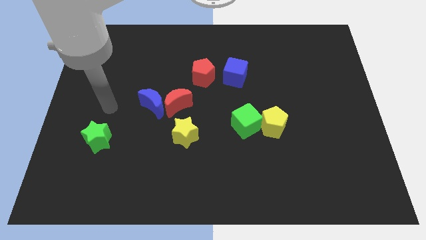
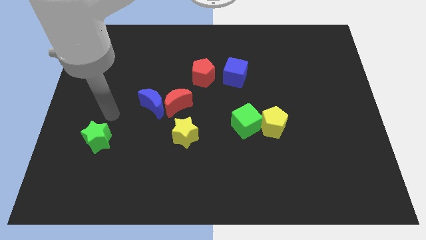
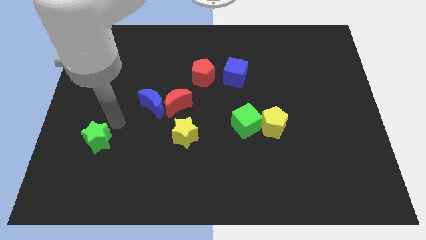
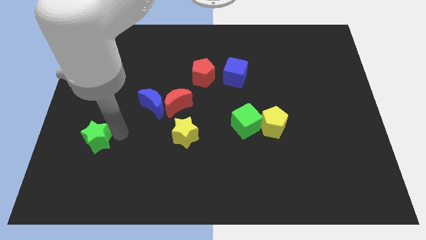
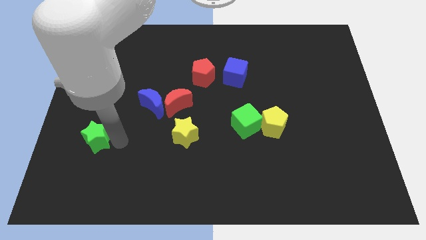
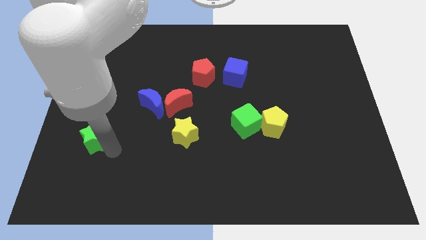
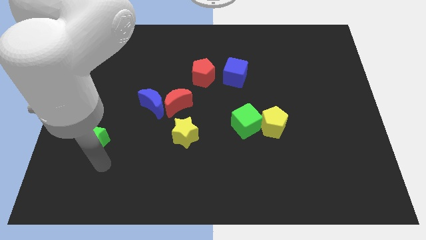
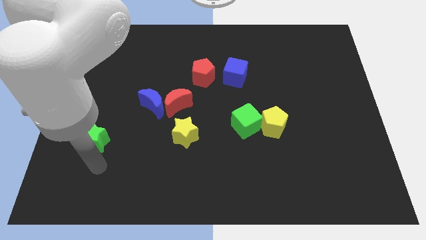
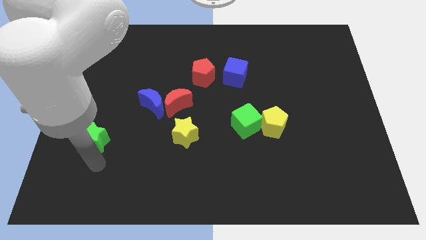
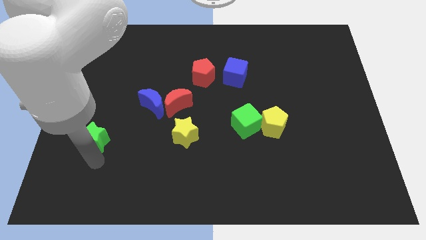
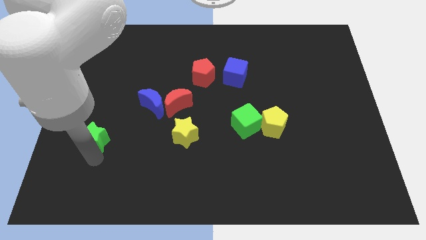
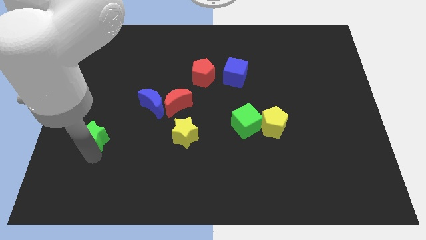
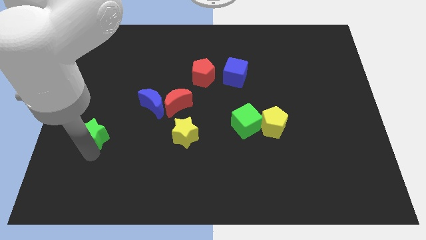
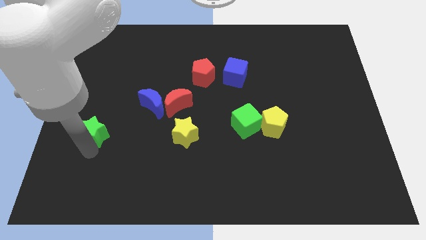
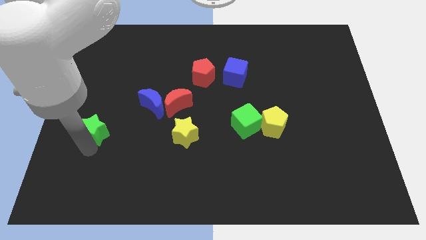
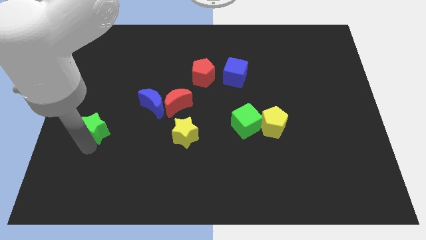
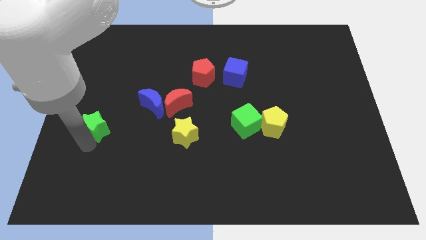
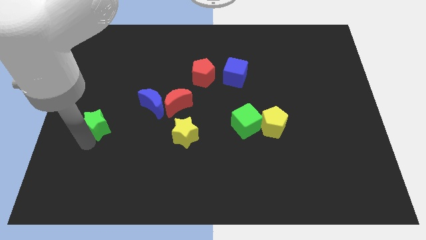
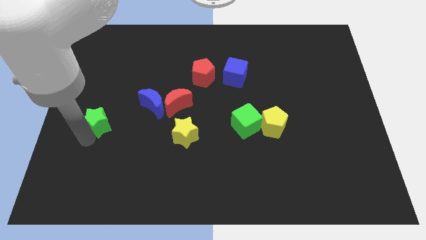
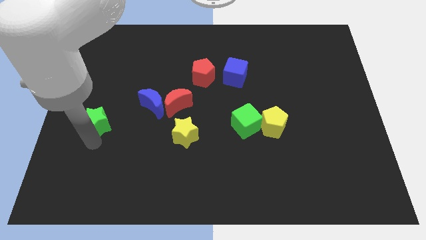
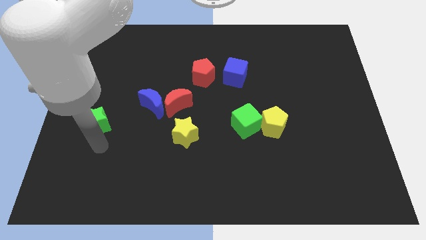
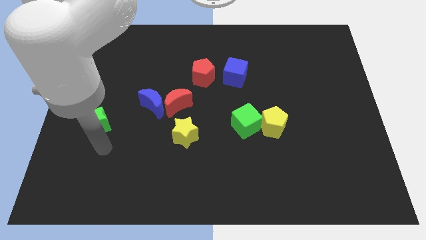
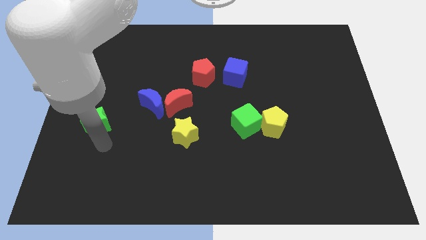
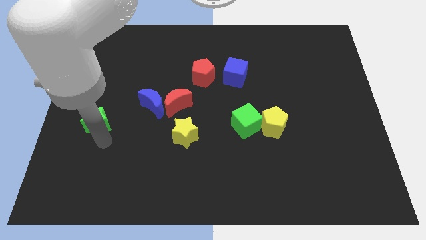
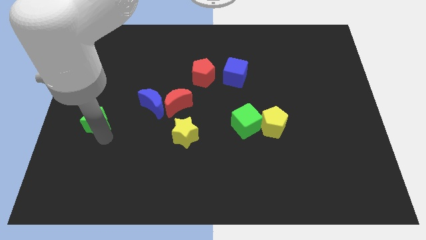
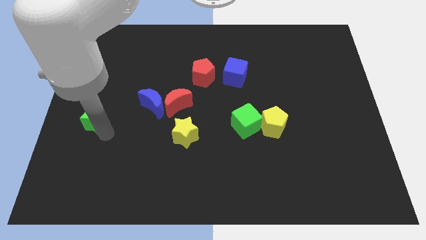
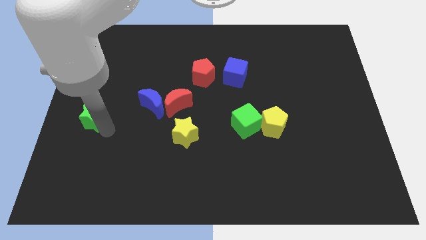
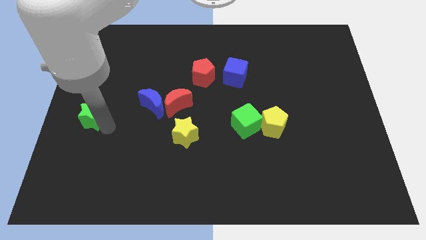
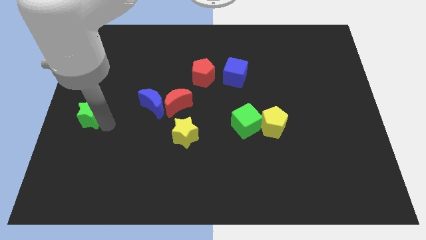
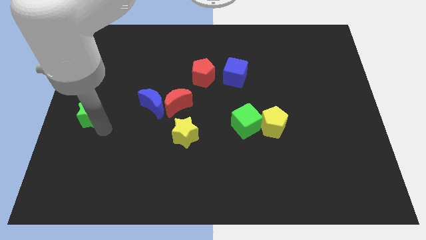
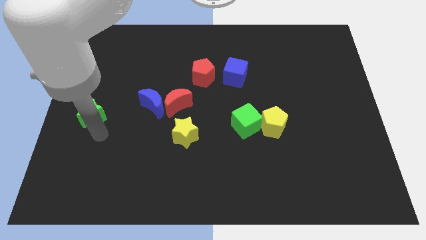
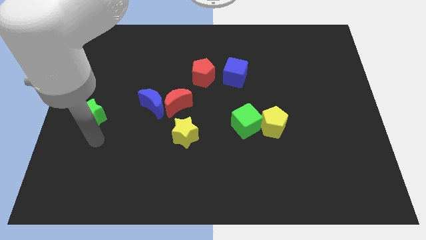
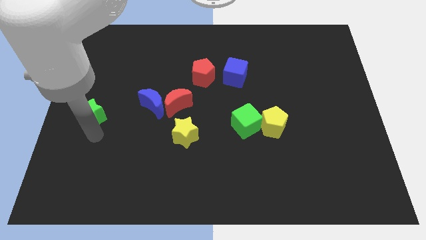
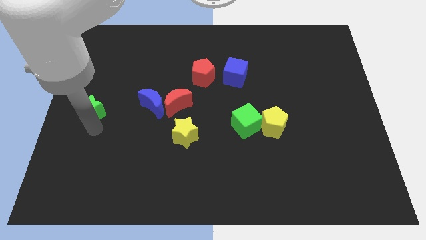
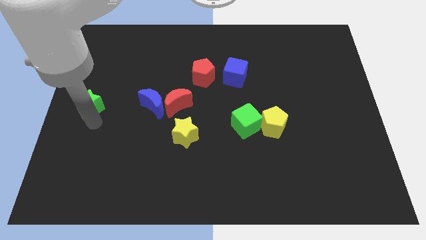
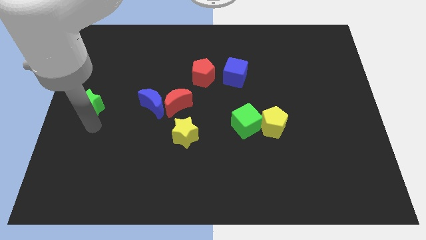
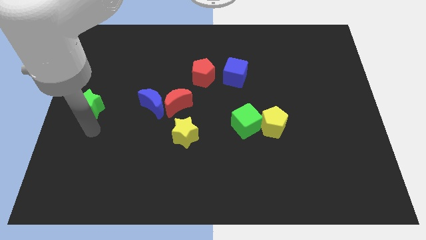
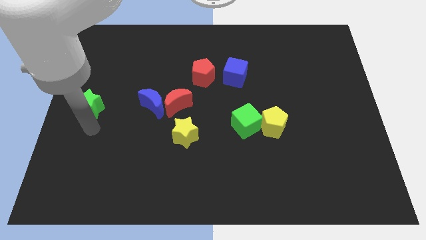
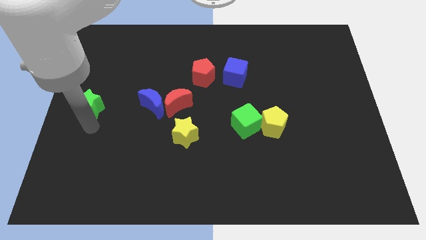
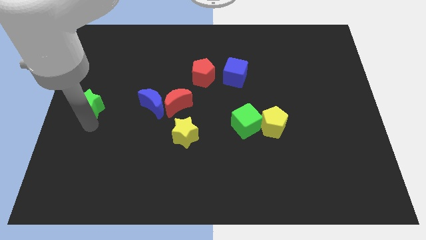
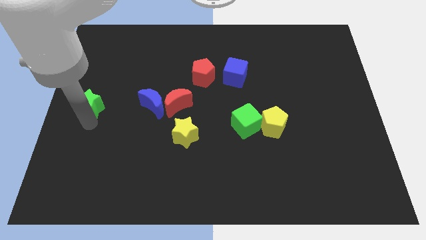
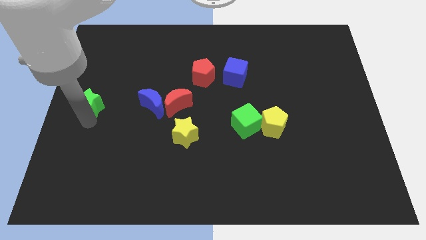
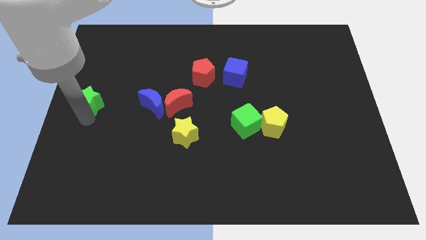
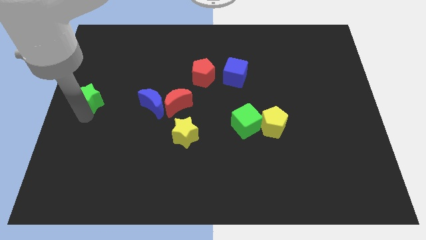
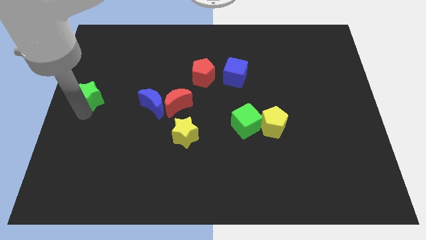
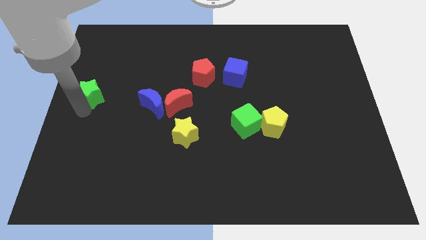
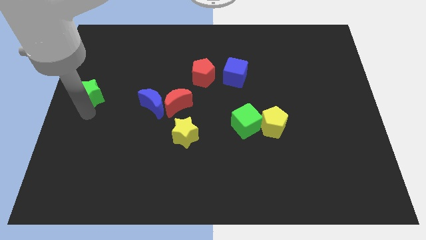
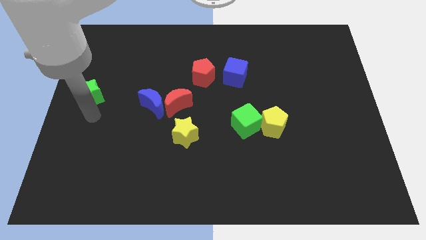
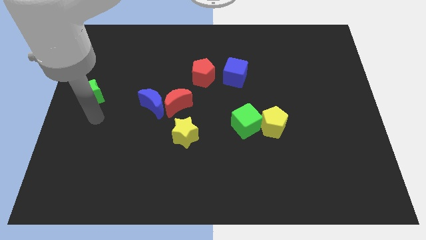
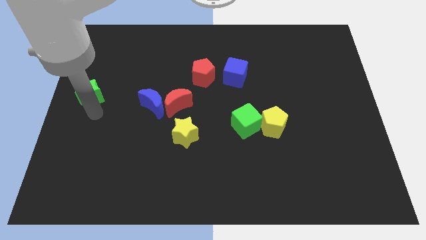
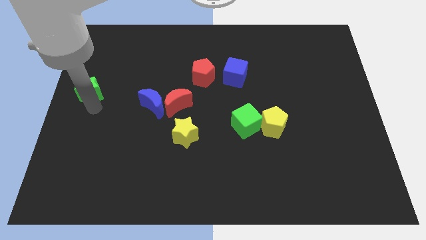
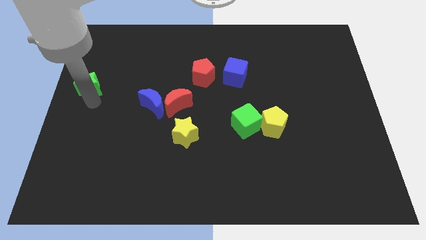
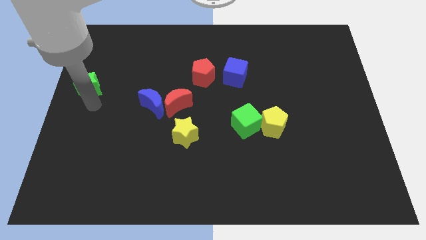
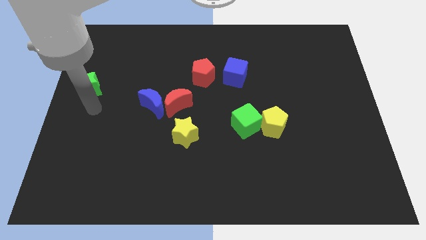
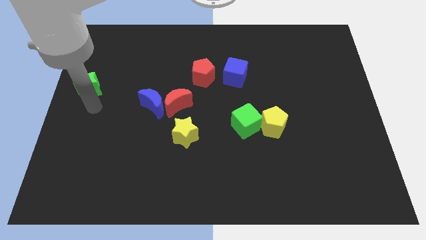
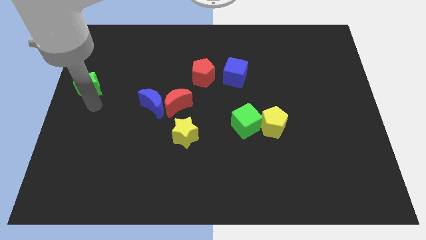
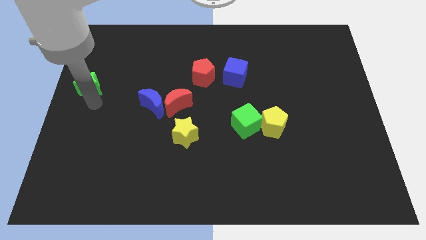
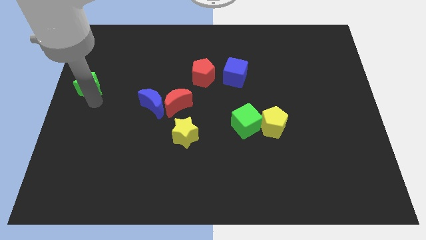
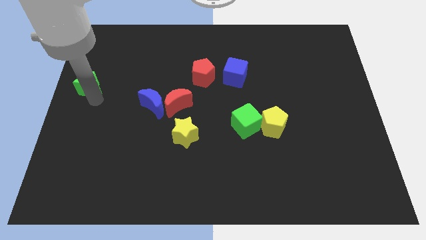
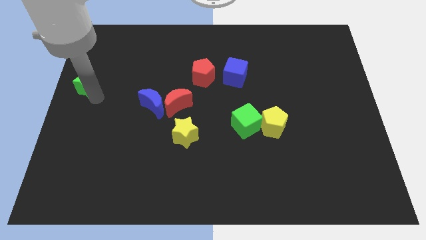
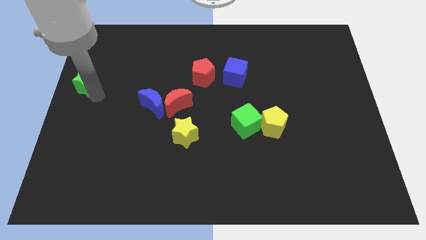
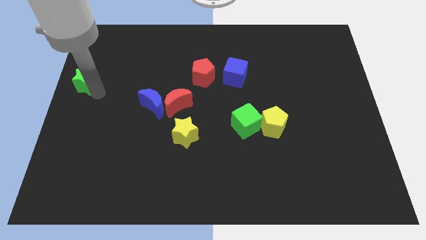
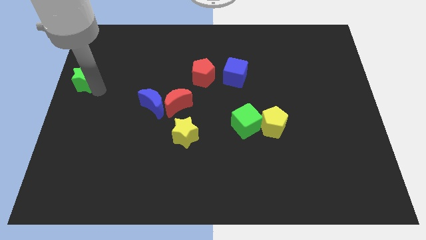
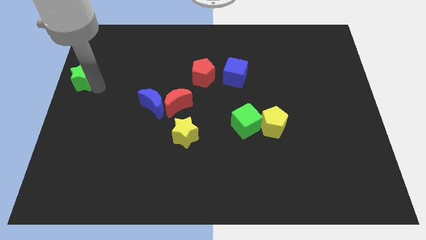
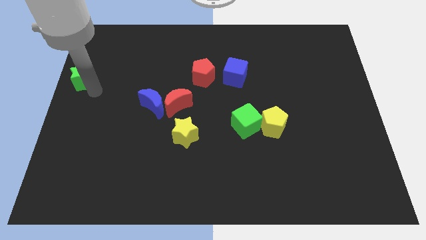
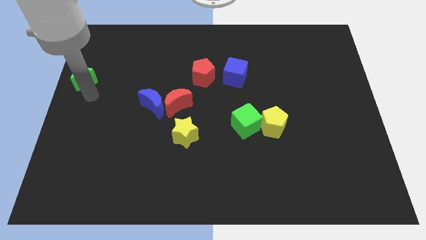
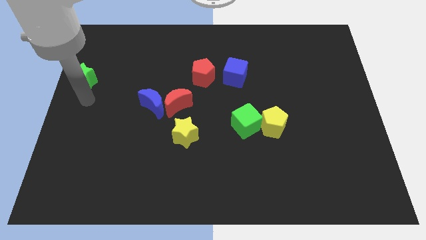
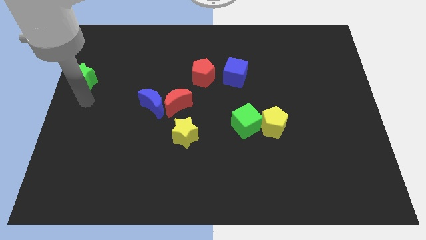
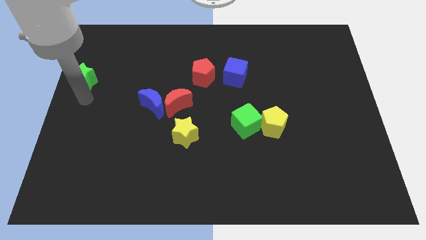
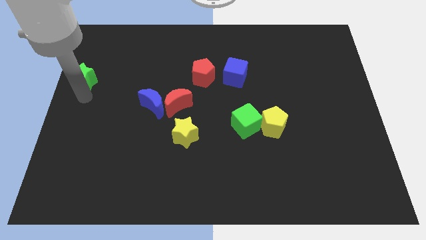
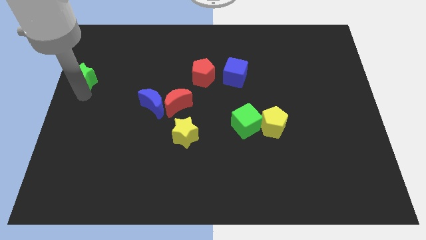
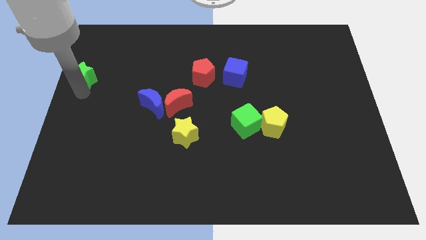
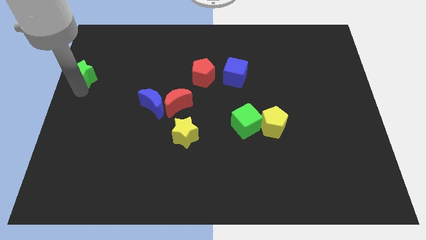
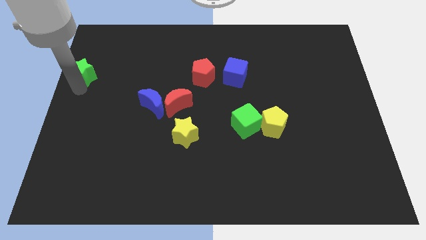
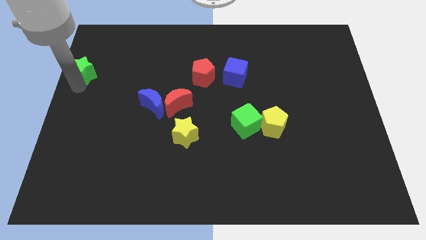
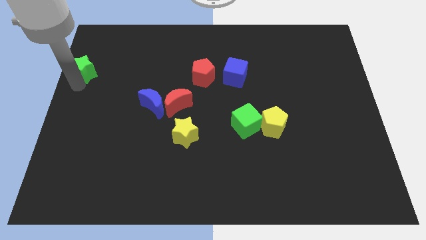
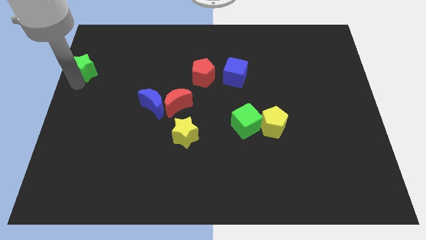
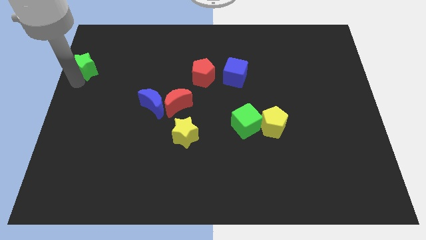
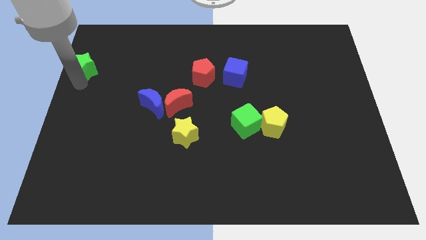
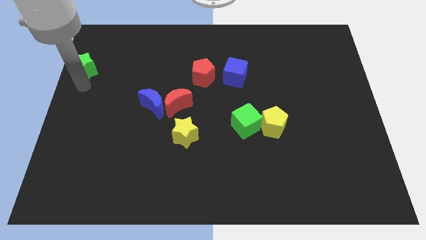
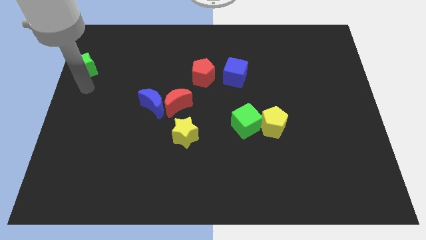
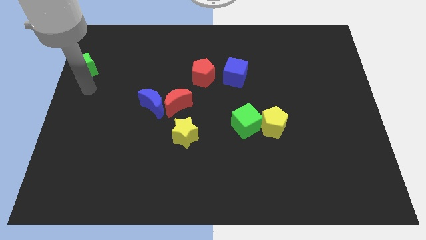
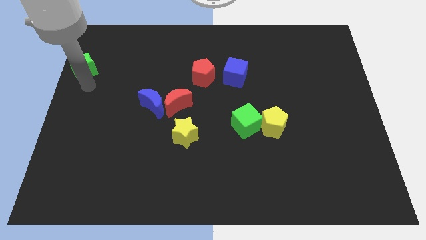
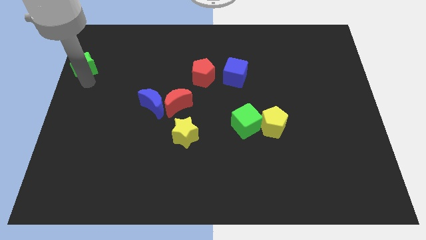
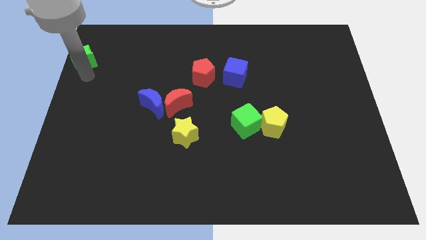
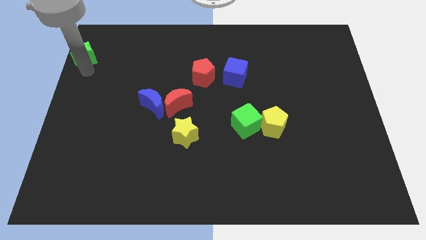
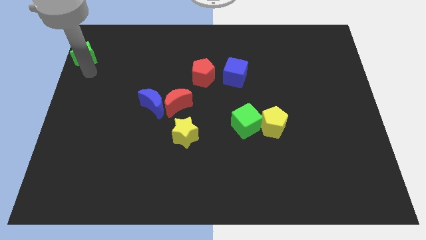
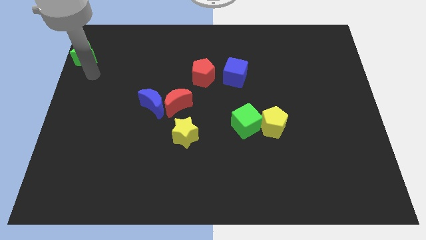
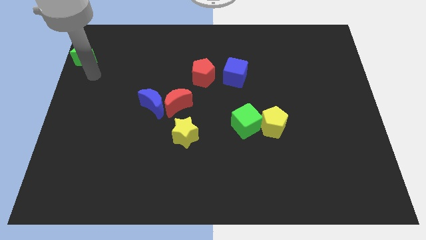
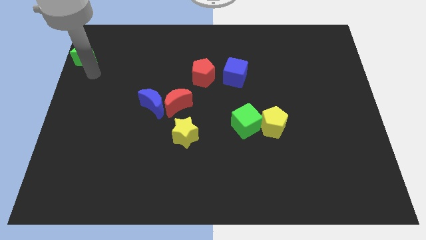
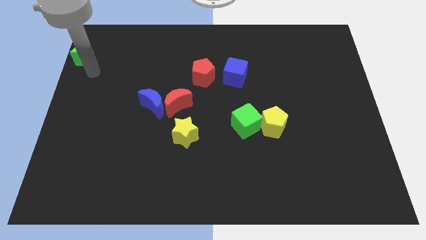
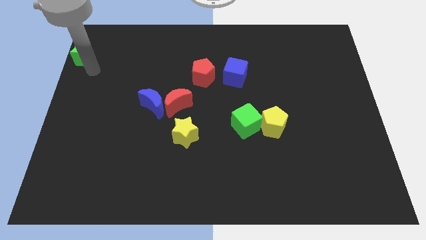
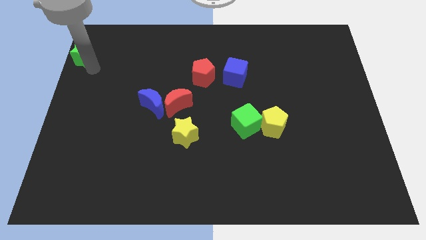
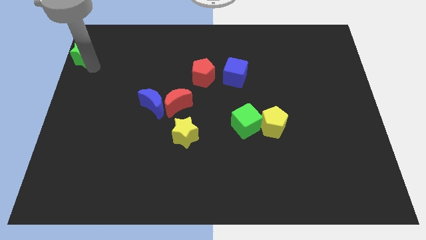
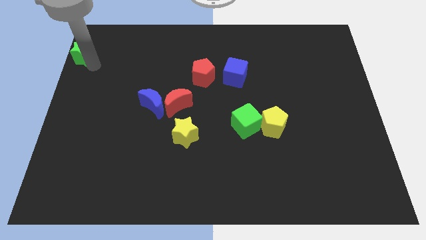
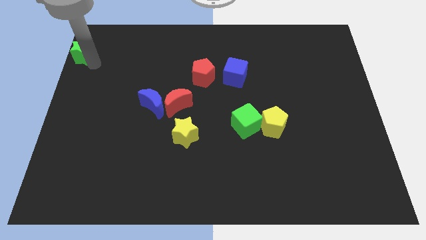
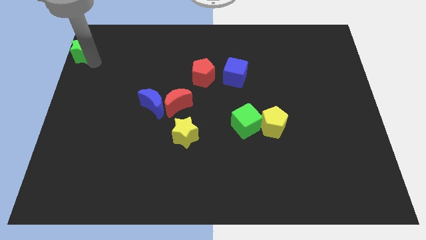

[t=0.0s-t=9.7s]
move the green star to the upper left corner
